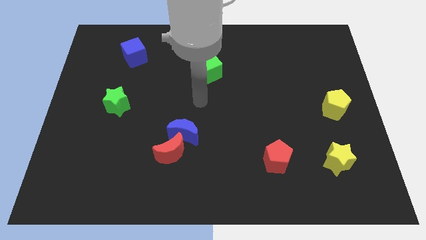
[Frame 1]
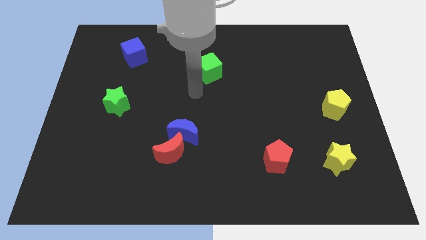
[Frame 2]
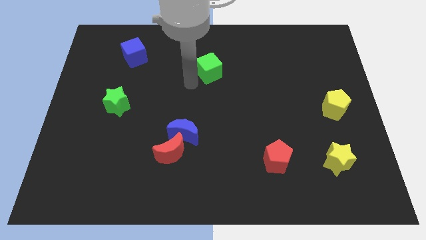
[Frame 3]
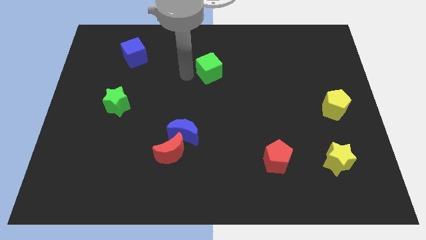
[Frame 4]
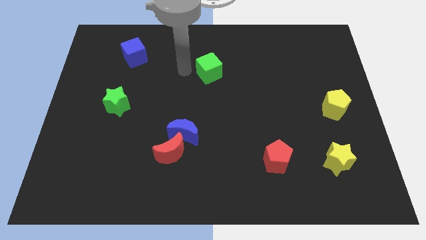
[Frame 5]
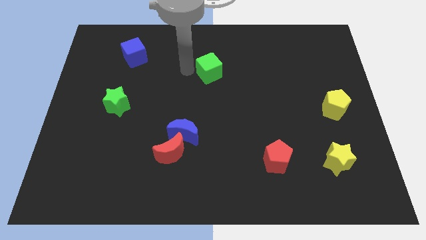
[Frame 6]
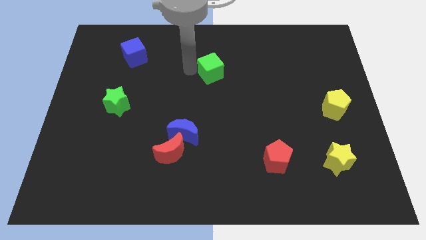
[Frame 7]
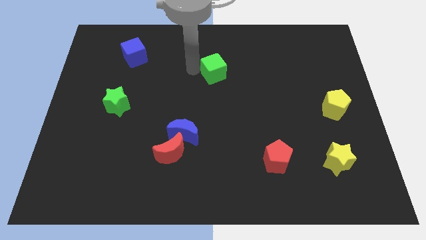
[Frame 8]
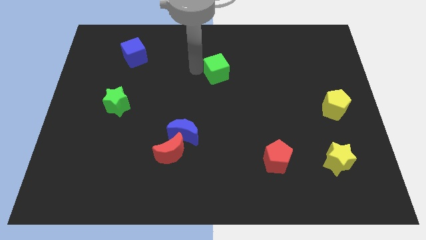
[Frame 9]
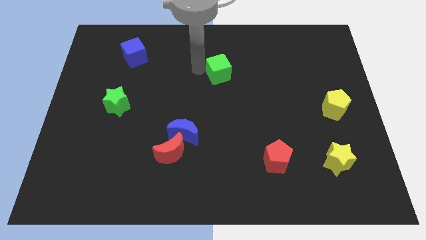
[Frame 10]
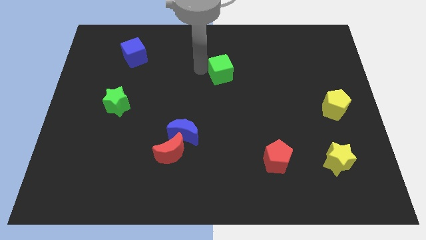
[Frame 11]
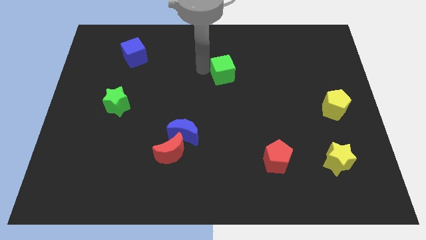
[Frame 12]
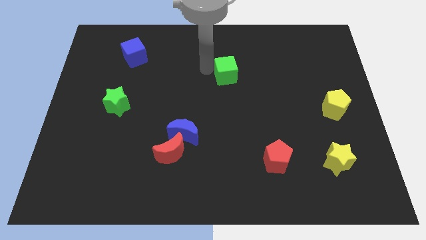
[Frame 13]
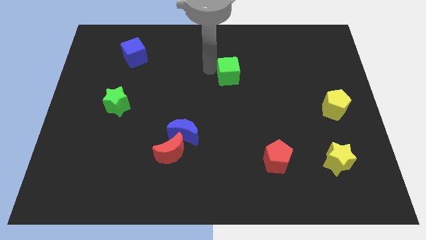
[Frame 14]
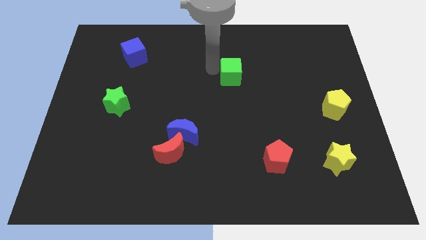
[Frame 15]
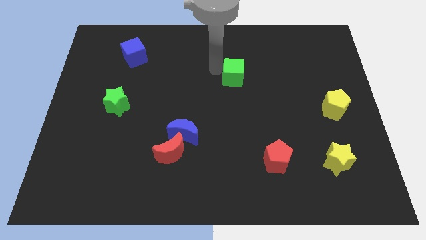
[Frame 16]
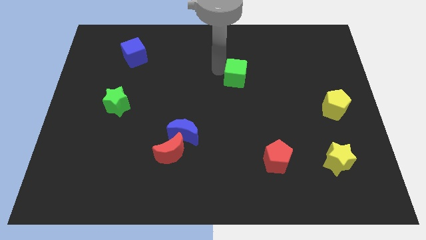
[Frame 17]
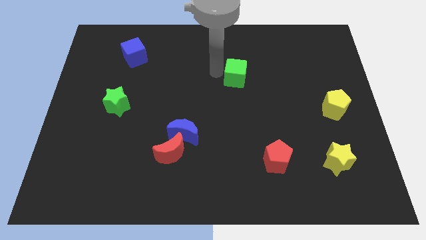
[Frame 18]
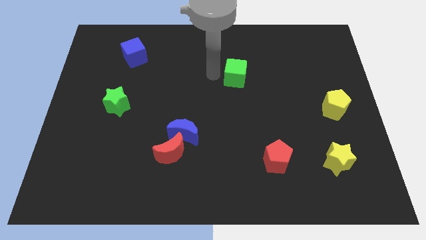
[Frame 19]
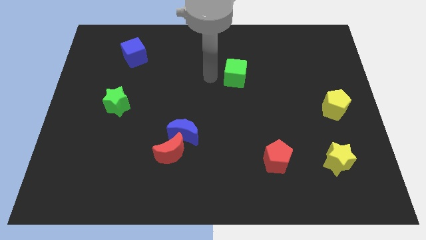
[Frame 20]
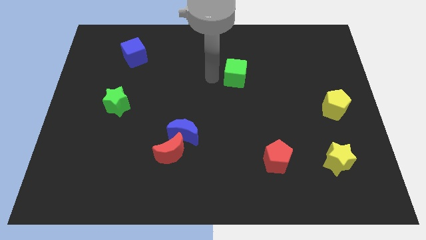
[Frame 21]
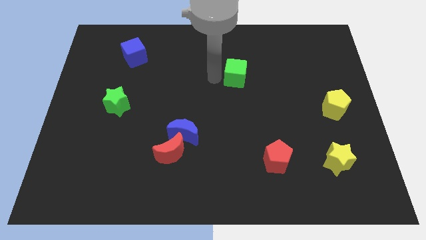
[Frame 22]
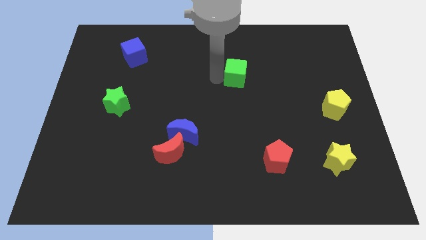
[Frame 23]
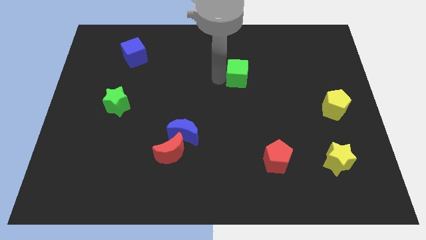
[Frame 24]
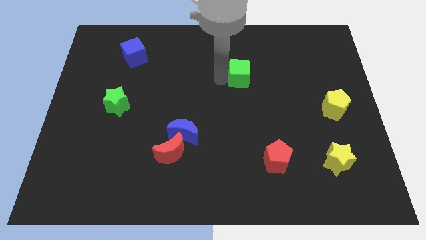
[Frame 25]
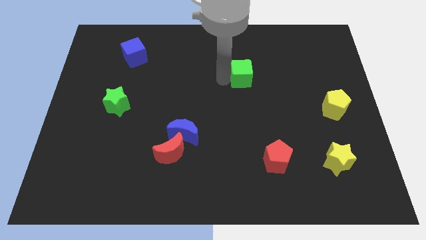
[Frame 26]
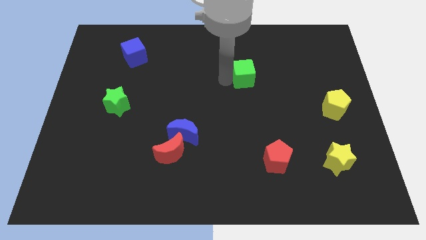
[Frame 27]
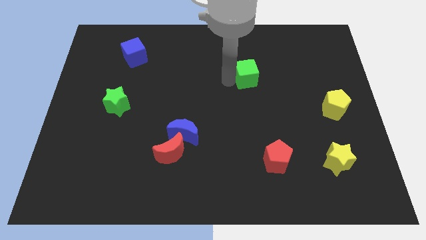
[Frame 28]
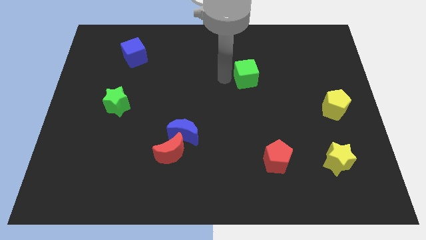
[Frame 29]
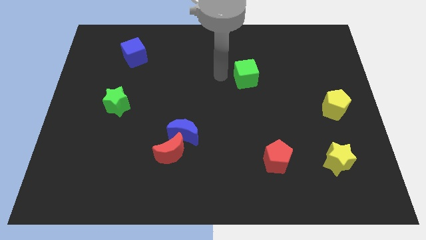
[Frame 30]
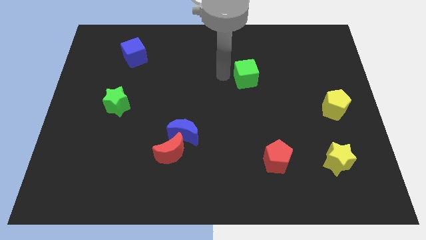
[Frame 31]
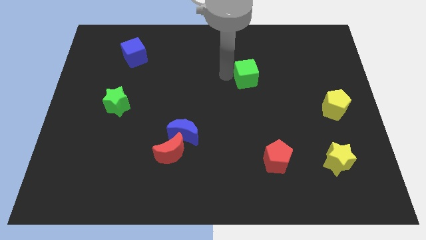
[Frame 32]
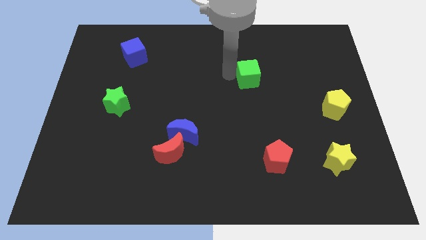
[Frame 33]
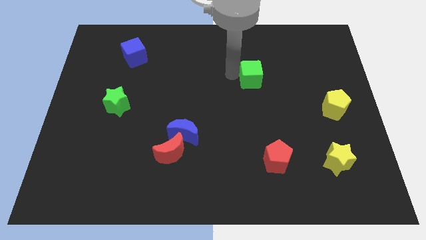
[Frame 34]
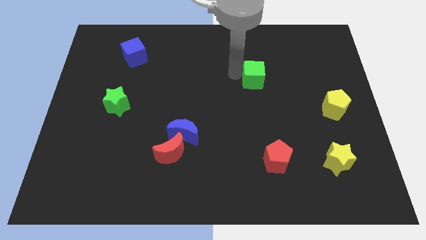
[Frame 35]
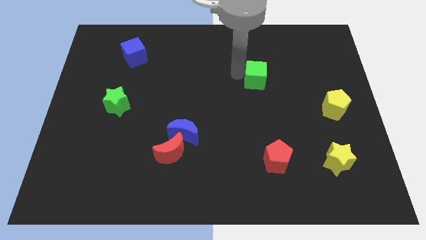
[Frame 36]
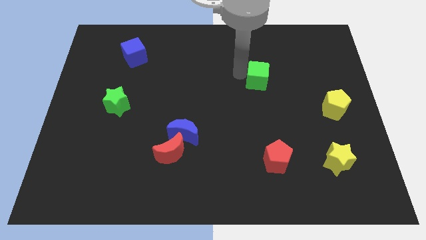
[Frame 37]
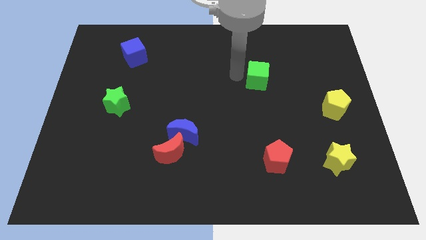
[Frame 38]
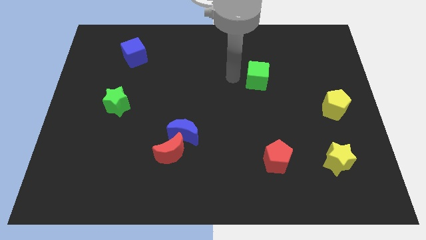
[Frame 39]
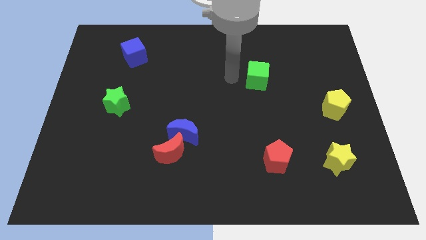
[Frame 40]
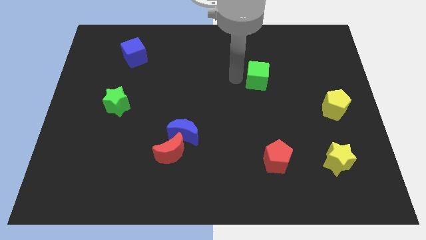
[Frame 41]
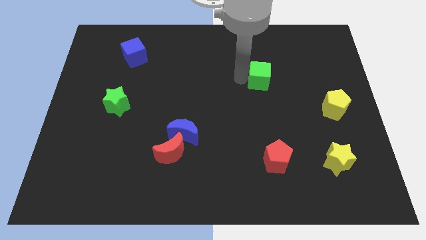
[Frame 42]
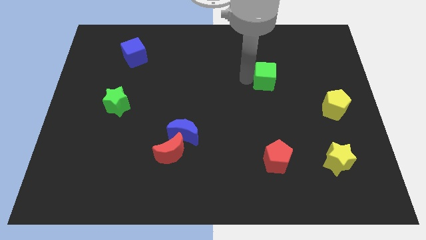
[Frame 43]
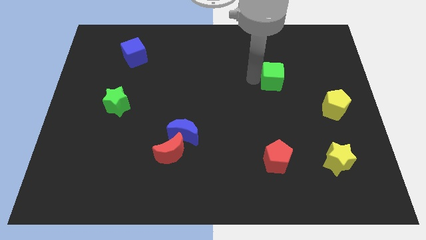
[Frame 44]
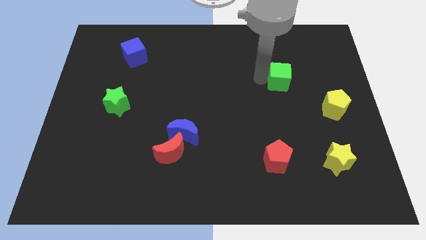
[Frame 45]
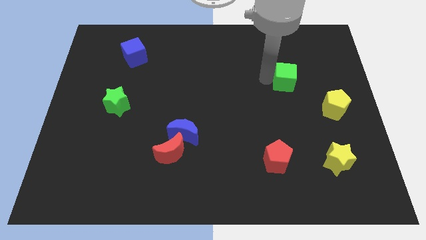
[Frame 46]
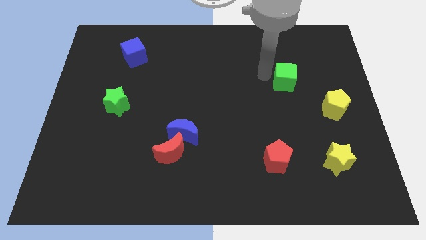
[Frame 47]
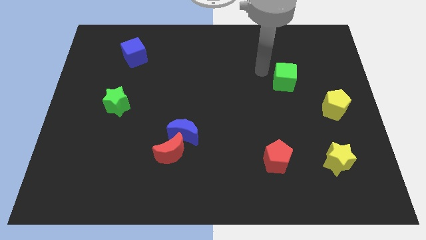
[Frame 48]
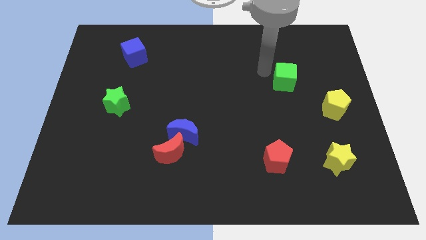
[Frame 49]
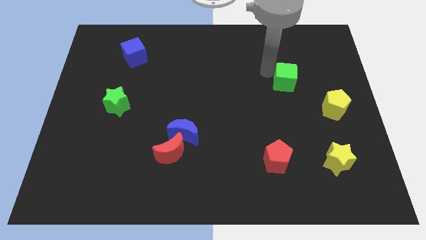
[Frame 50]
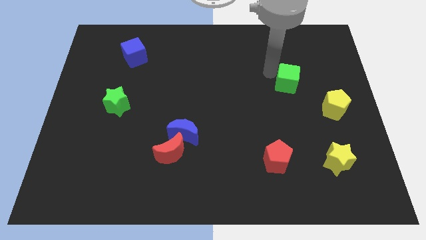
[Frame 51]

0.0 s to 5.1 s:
put the green cube to the top left side of the yellow pentagon

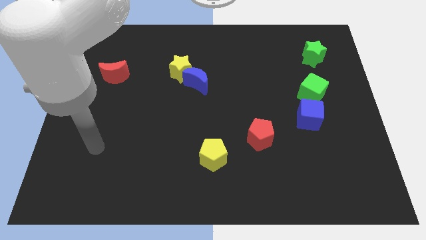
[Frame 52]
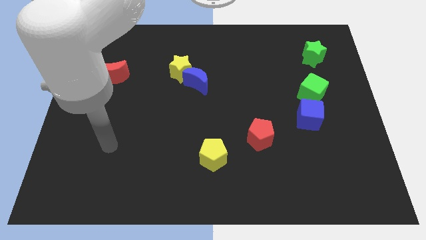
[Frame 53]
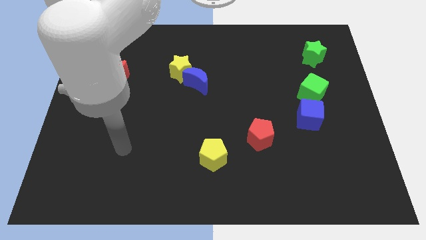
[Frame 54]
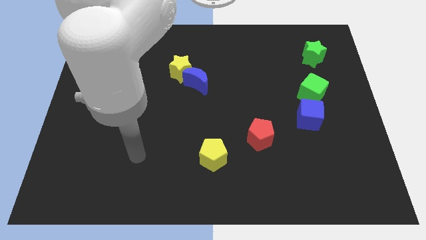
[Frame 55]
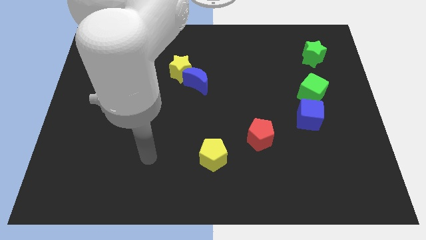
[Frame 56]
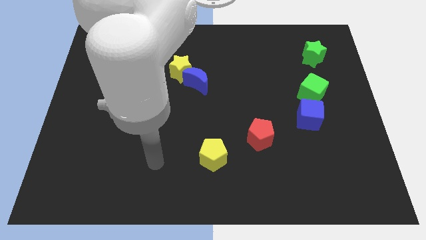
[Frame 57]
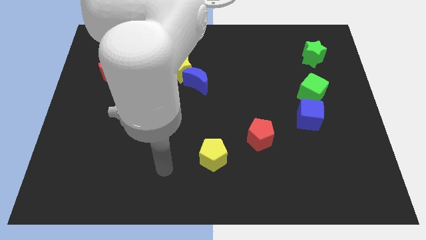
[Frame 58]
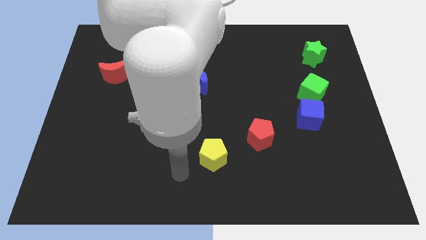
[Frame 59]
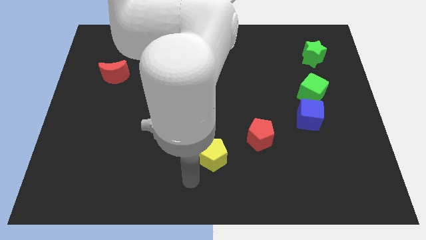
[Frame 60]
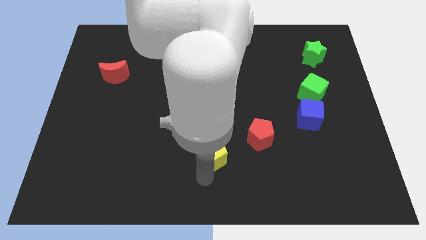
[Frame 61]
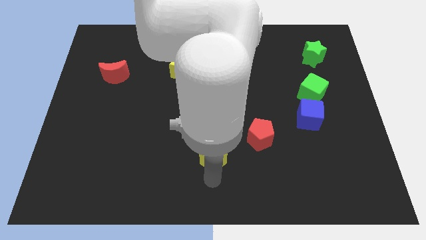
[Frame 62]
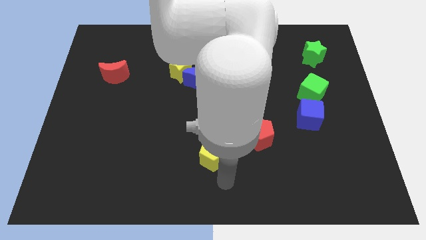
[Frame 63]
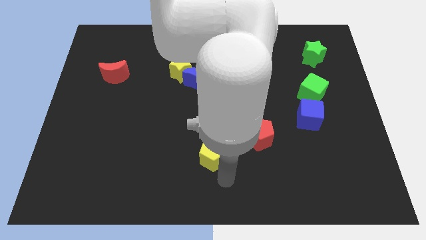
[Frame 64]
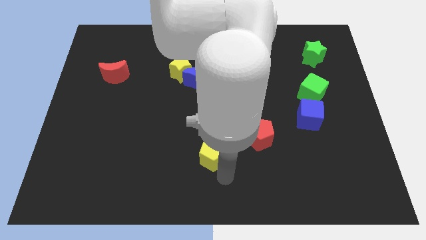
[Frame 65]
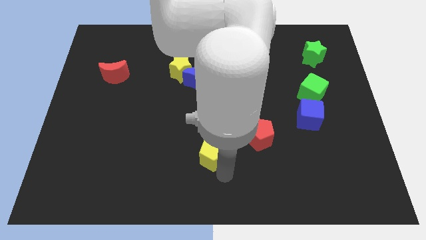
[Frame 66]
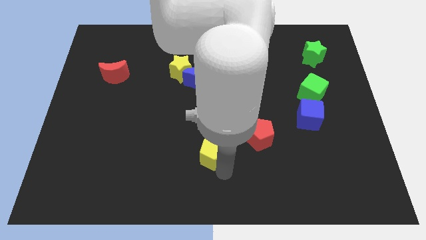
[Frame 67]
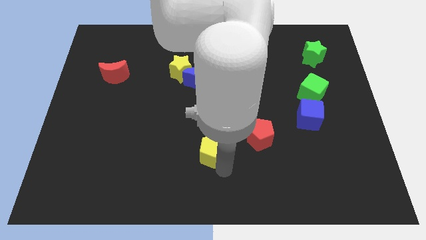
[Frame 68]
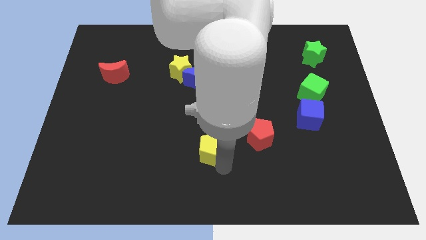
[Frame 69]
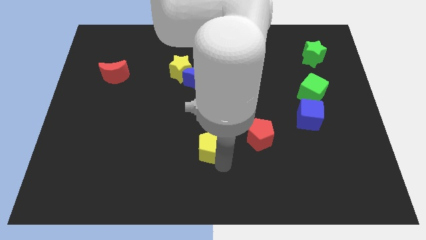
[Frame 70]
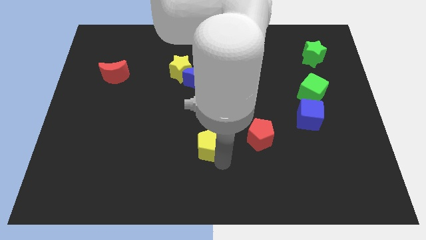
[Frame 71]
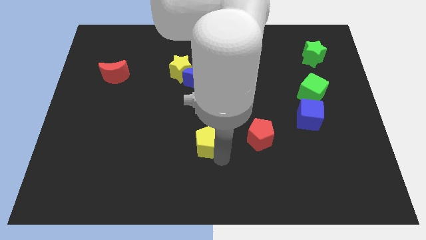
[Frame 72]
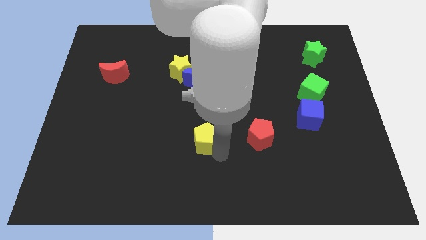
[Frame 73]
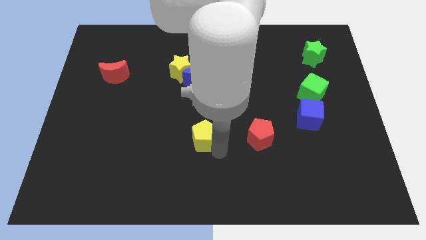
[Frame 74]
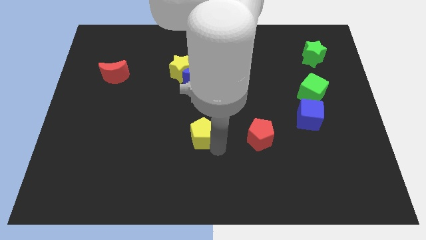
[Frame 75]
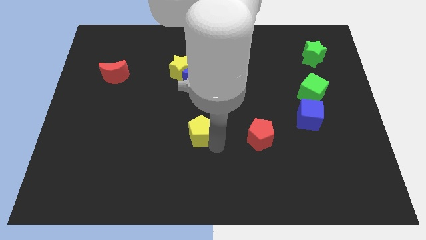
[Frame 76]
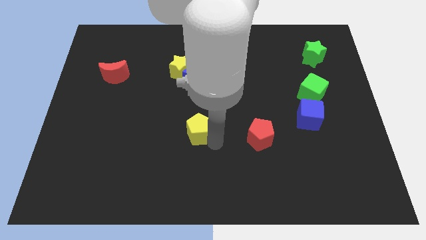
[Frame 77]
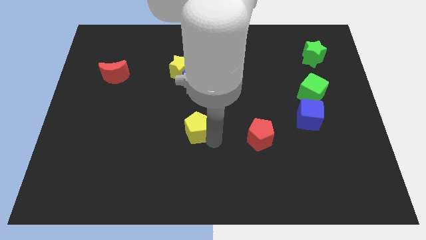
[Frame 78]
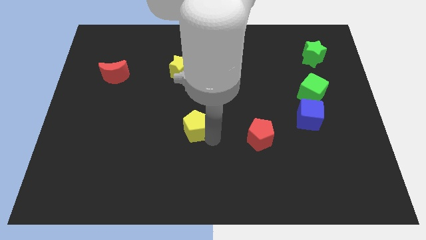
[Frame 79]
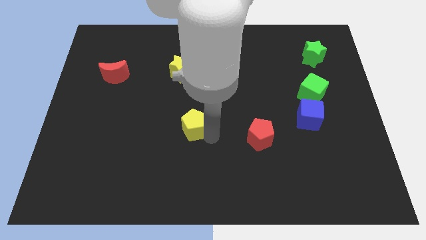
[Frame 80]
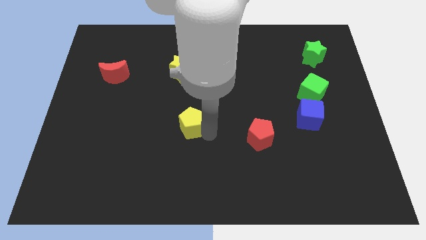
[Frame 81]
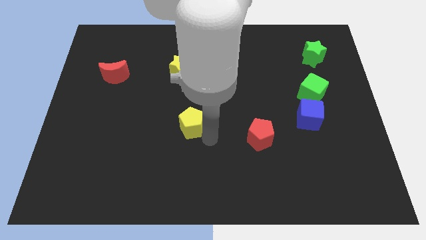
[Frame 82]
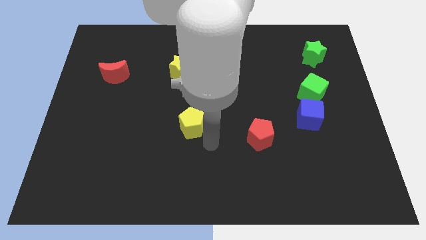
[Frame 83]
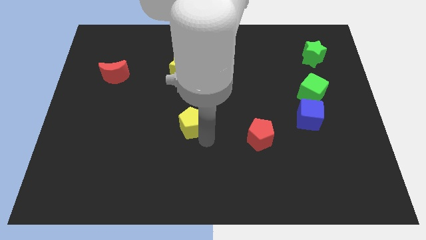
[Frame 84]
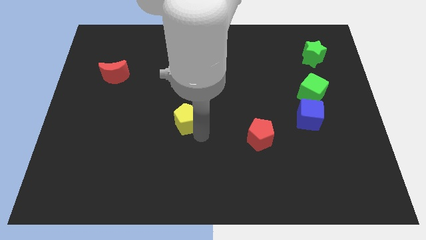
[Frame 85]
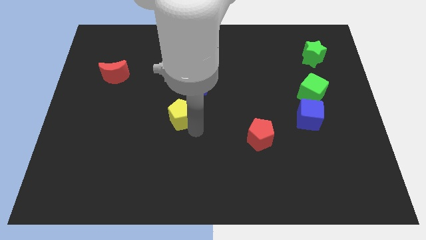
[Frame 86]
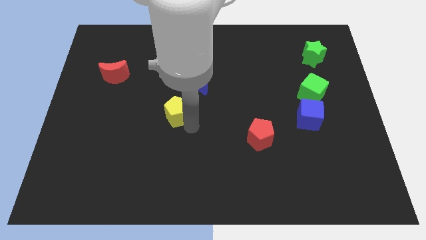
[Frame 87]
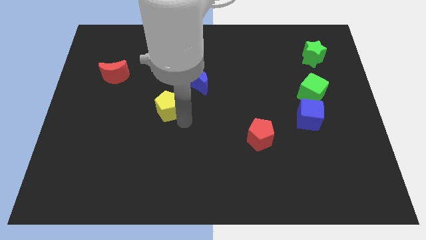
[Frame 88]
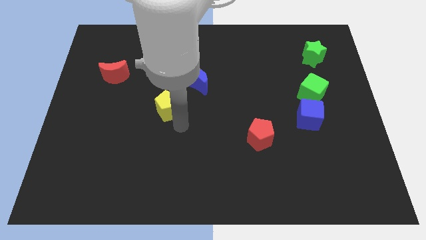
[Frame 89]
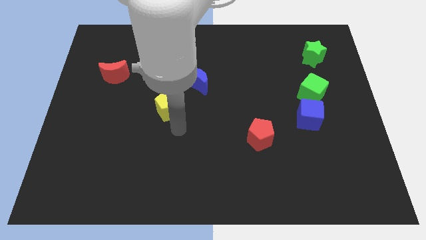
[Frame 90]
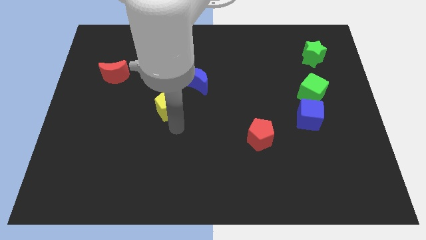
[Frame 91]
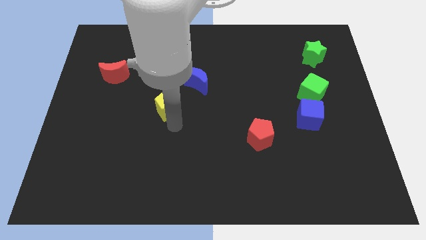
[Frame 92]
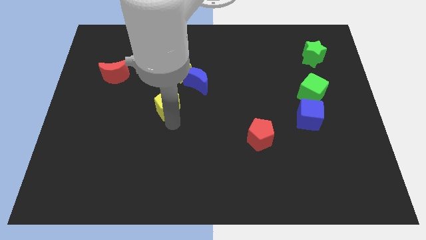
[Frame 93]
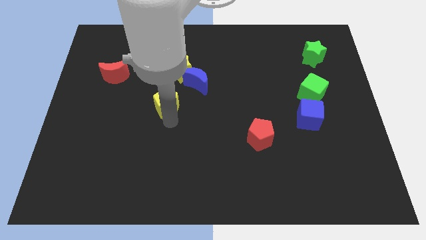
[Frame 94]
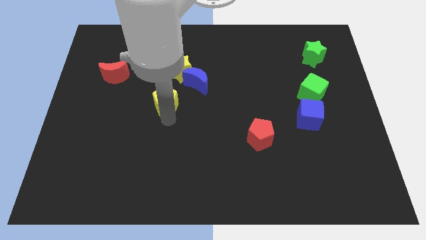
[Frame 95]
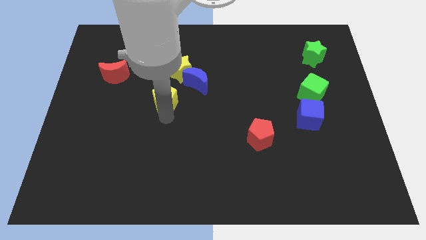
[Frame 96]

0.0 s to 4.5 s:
put the yellow pentagon diagonally down and to the left of the yellow star
